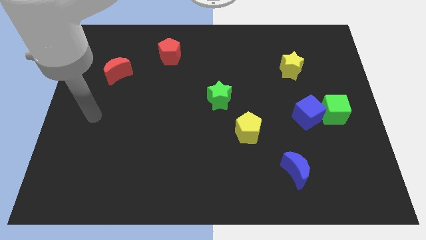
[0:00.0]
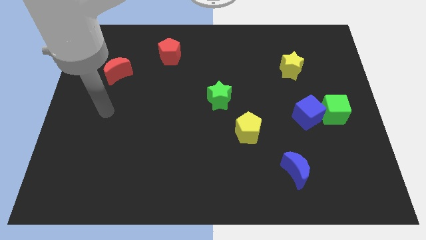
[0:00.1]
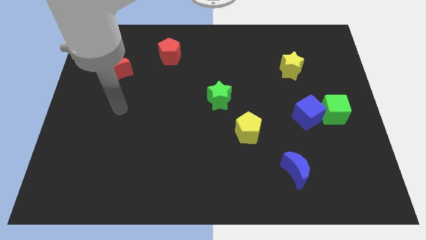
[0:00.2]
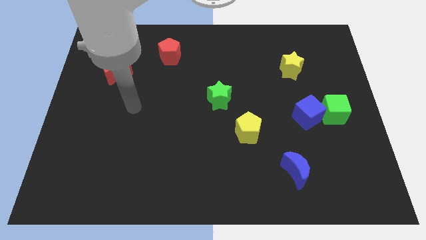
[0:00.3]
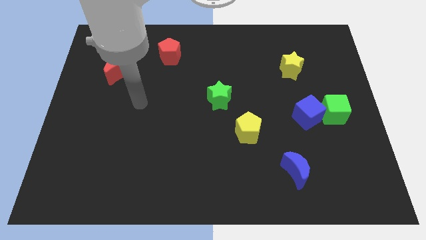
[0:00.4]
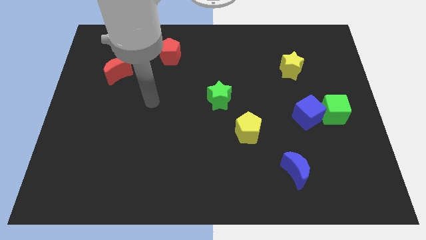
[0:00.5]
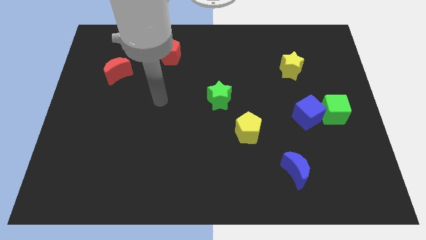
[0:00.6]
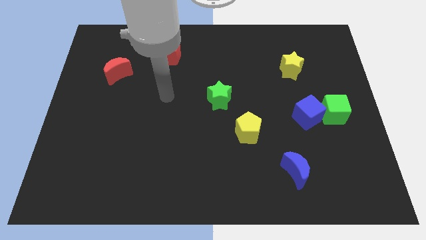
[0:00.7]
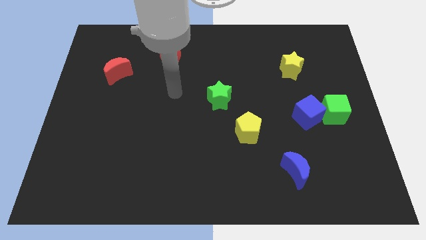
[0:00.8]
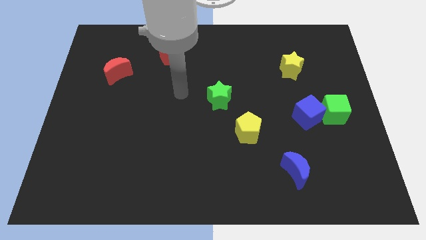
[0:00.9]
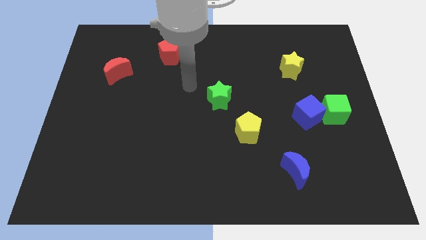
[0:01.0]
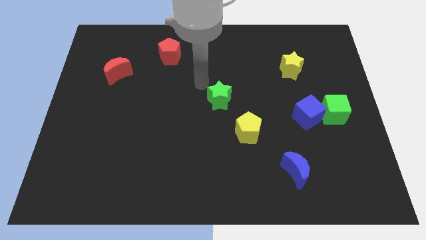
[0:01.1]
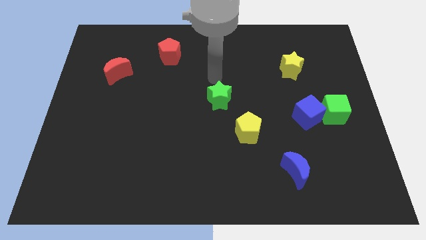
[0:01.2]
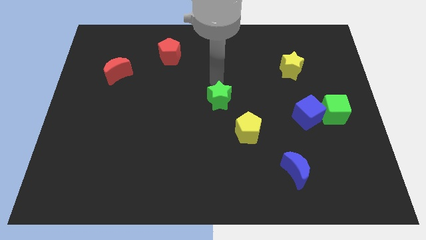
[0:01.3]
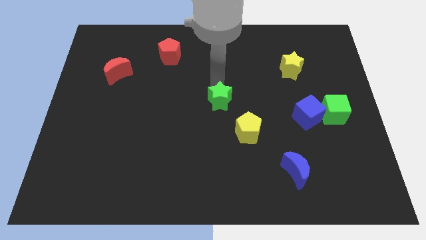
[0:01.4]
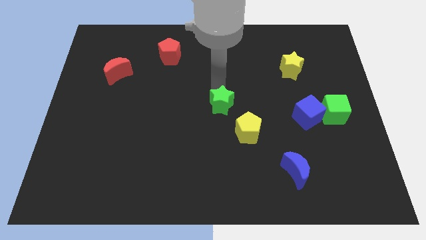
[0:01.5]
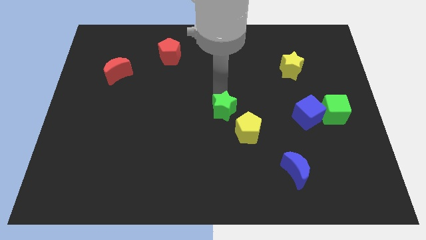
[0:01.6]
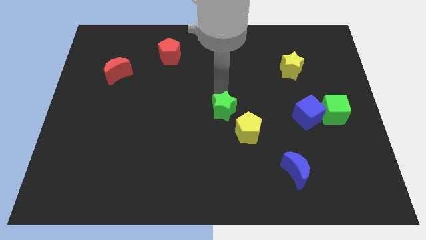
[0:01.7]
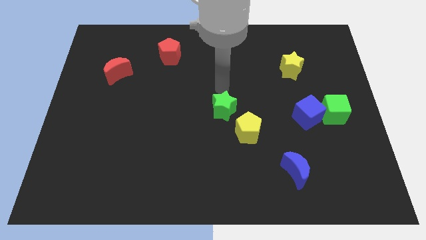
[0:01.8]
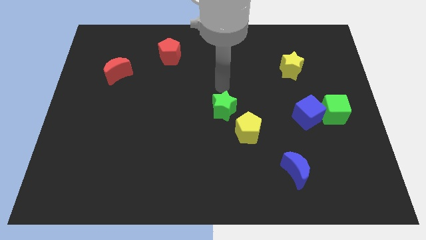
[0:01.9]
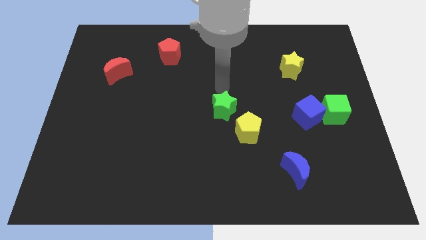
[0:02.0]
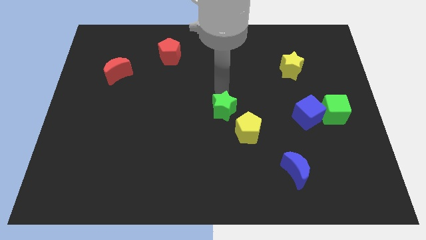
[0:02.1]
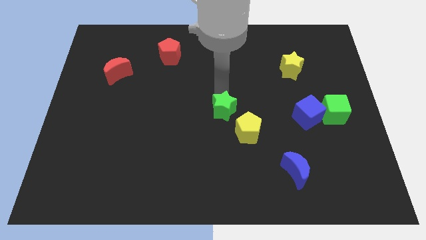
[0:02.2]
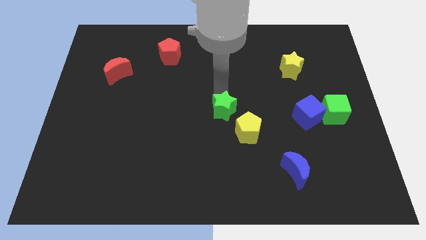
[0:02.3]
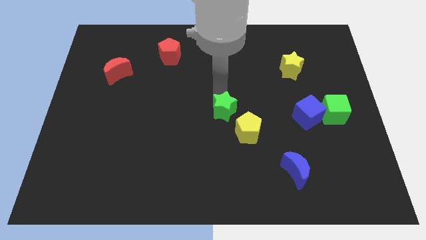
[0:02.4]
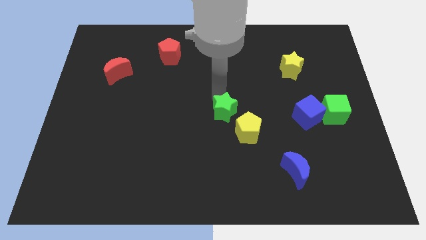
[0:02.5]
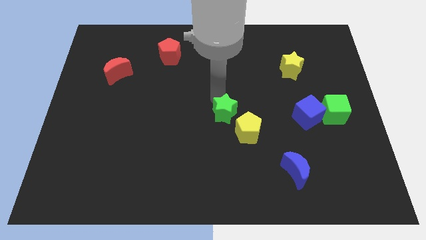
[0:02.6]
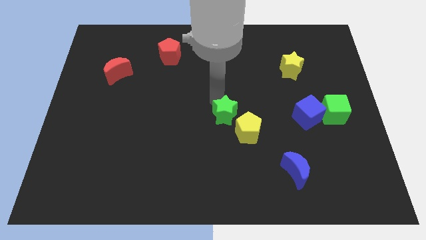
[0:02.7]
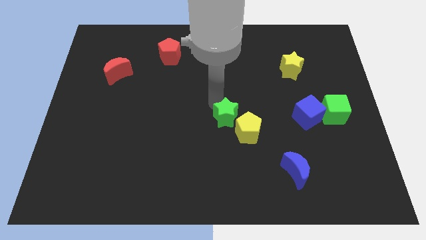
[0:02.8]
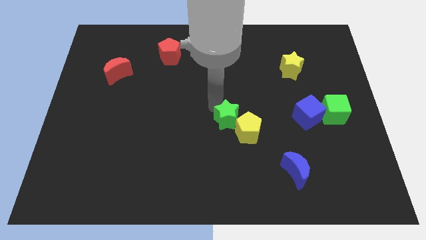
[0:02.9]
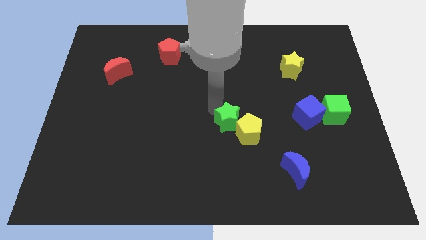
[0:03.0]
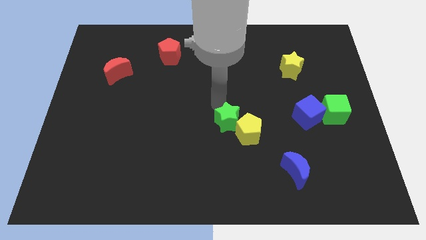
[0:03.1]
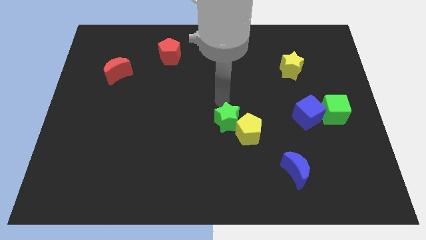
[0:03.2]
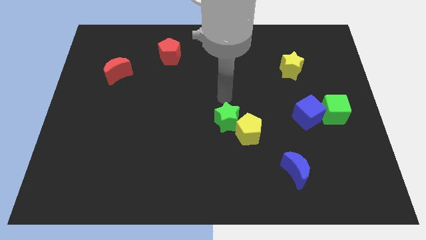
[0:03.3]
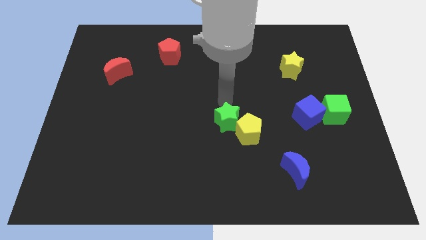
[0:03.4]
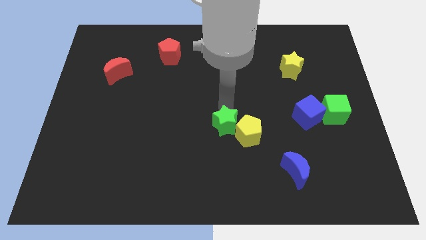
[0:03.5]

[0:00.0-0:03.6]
slide the green star slightly down

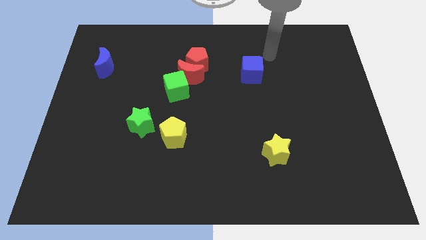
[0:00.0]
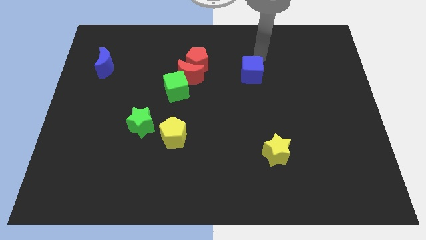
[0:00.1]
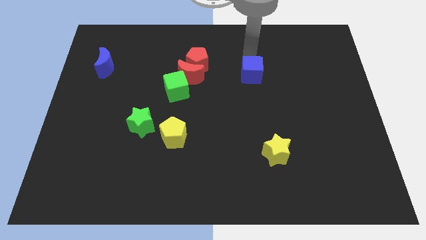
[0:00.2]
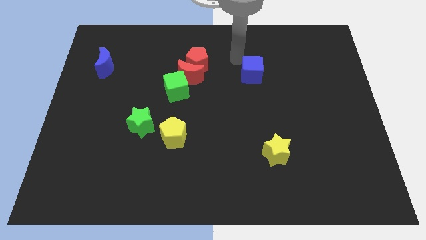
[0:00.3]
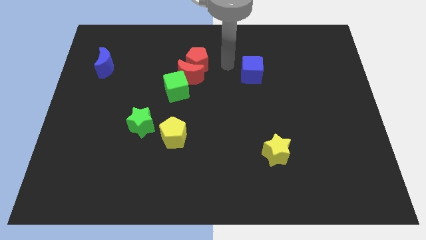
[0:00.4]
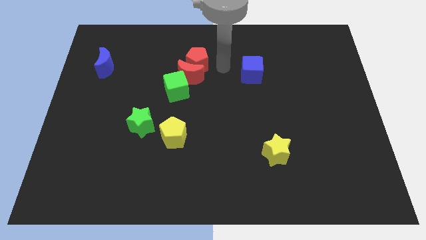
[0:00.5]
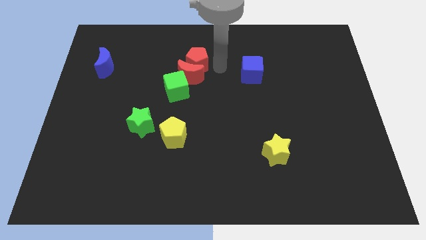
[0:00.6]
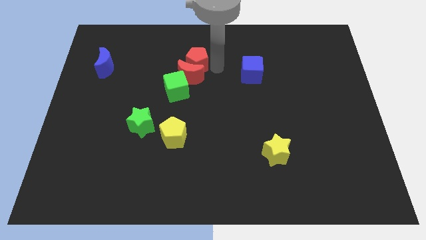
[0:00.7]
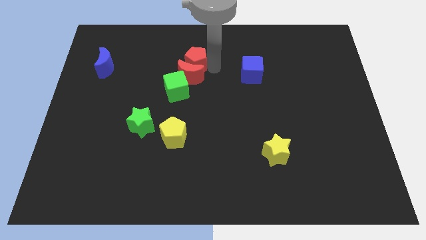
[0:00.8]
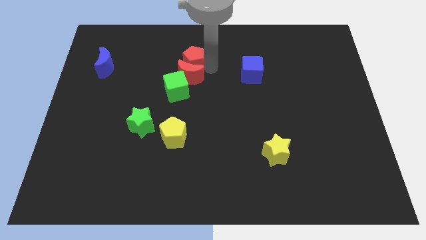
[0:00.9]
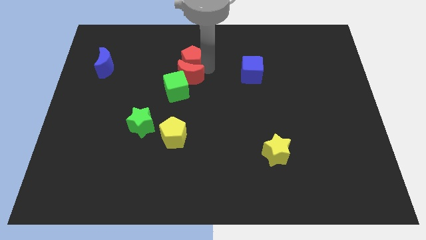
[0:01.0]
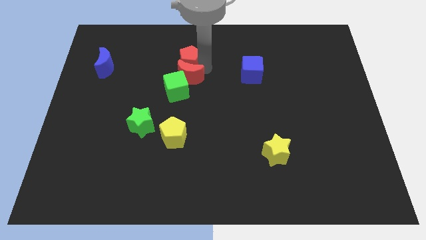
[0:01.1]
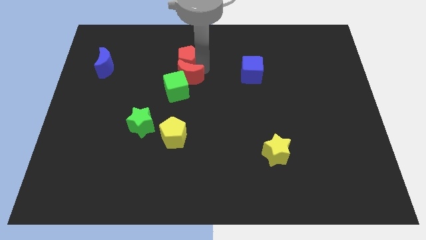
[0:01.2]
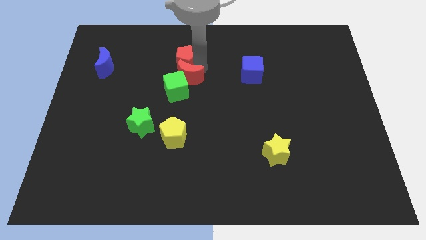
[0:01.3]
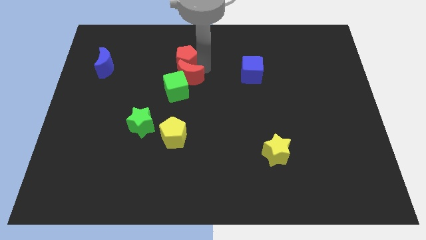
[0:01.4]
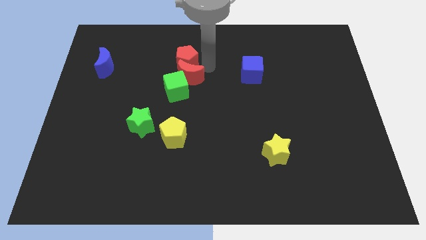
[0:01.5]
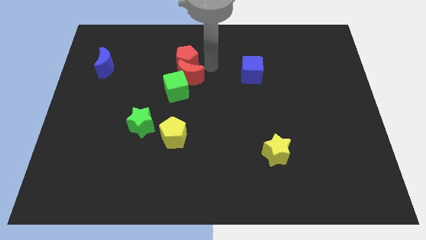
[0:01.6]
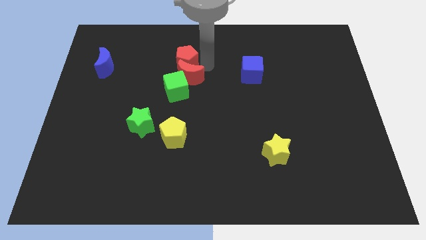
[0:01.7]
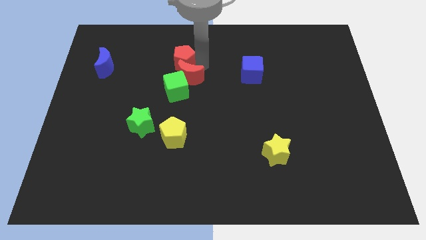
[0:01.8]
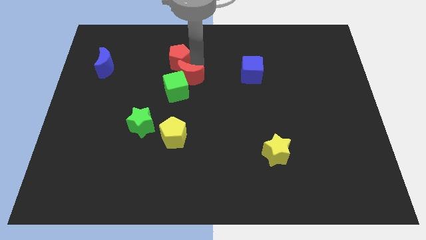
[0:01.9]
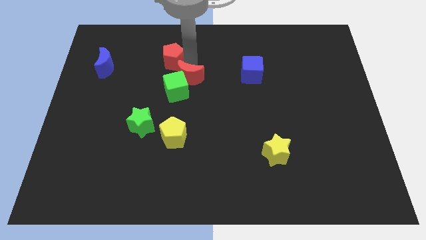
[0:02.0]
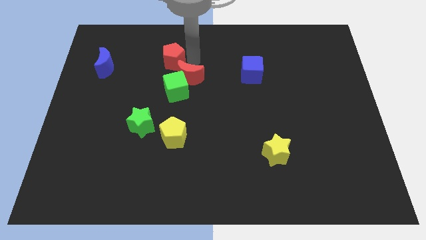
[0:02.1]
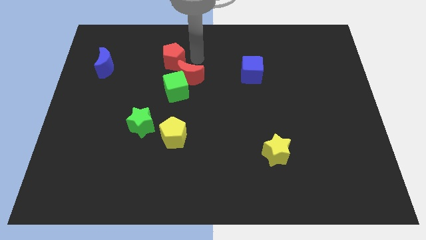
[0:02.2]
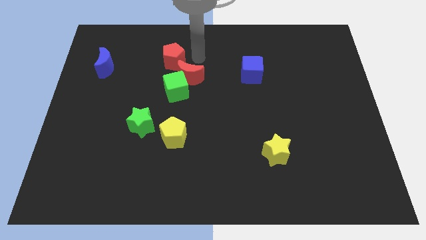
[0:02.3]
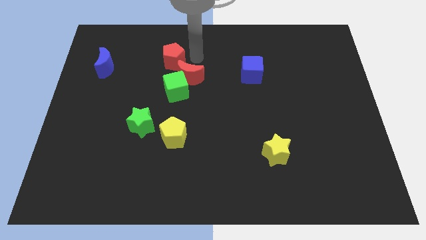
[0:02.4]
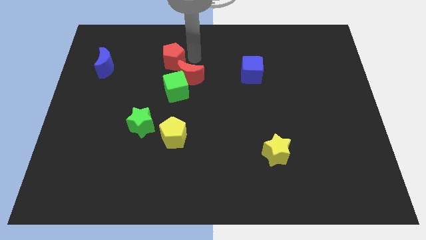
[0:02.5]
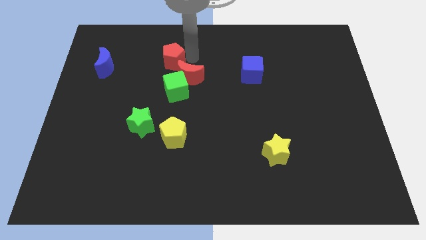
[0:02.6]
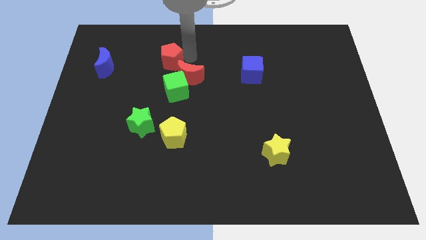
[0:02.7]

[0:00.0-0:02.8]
slide the red pentagon somewhat to the left

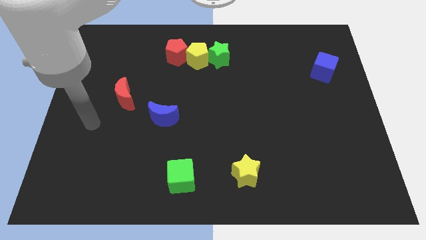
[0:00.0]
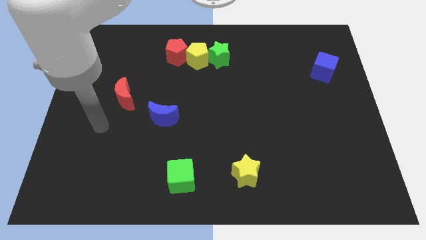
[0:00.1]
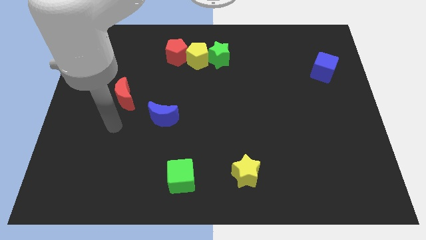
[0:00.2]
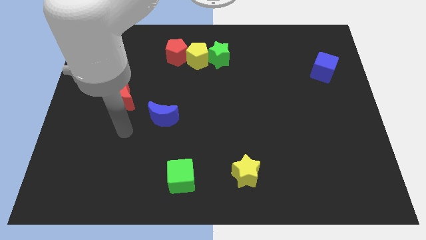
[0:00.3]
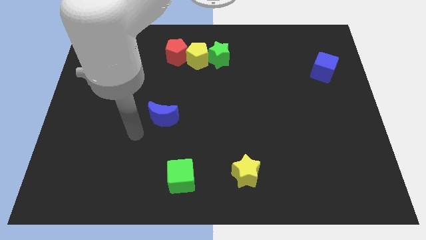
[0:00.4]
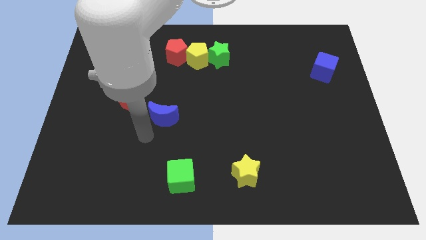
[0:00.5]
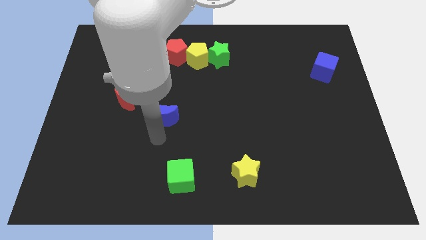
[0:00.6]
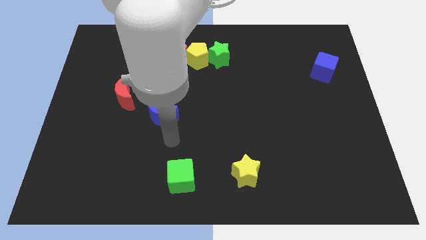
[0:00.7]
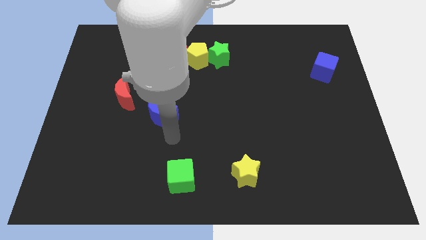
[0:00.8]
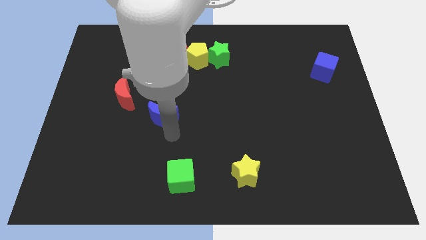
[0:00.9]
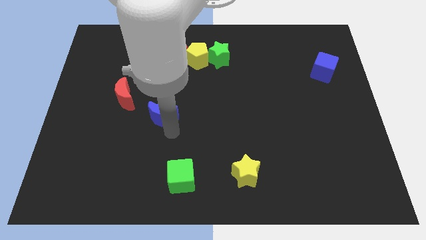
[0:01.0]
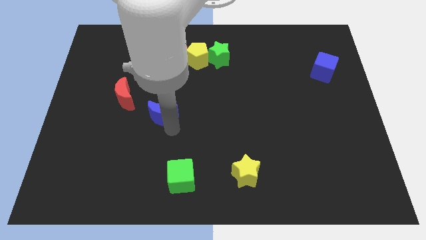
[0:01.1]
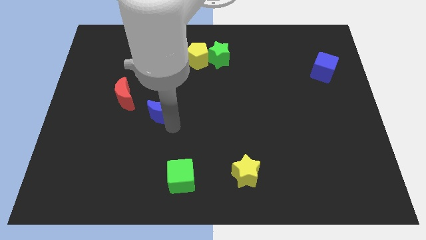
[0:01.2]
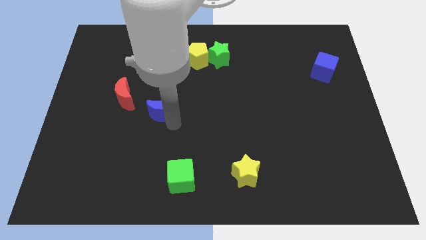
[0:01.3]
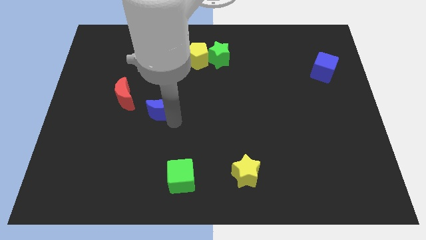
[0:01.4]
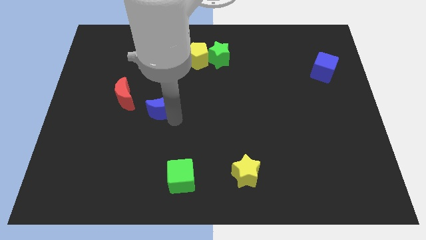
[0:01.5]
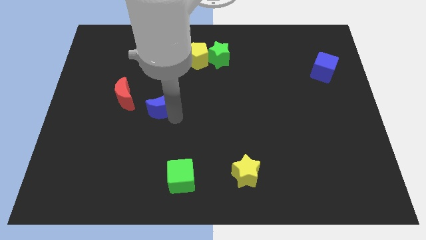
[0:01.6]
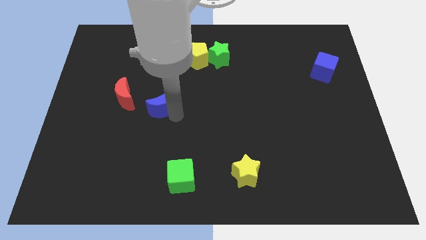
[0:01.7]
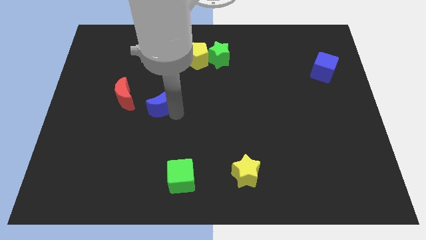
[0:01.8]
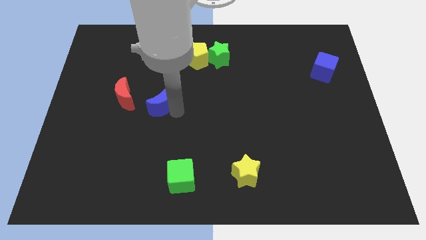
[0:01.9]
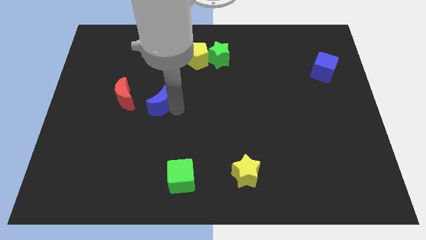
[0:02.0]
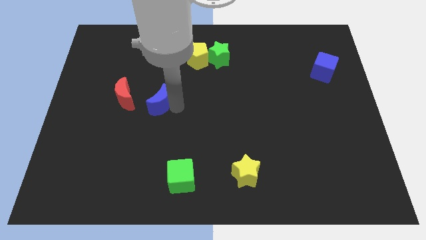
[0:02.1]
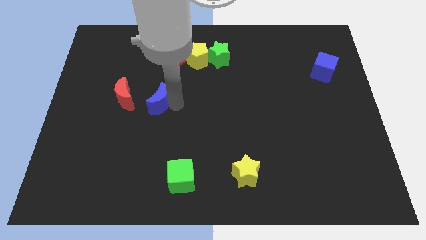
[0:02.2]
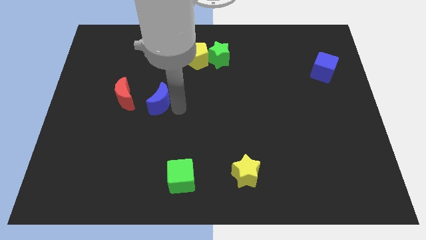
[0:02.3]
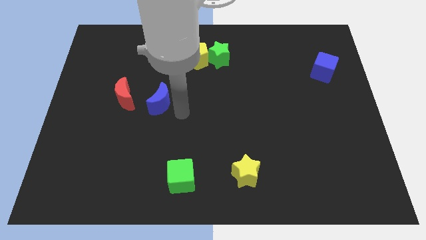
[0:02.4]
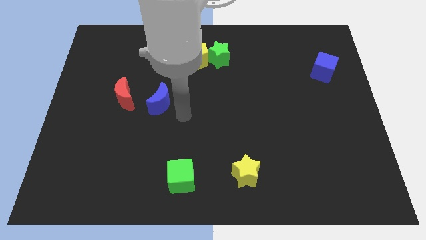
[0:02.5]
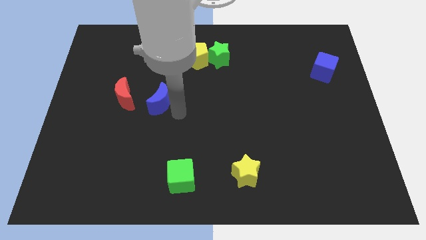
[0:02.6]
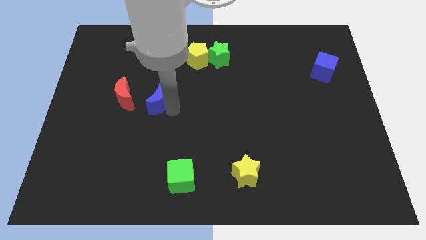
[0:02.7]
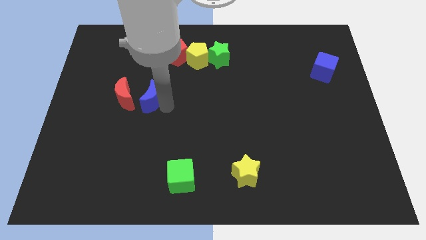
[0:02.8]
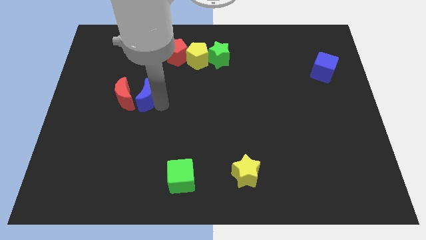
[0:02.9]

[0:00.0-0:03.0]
move the blue moon upwards and left diagonally slightly
